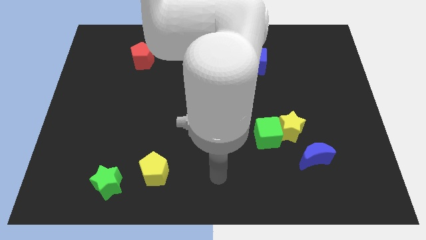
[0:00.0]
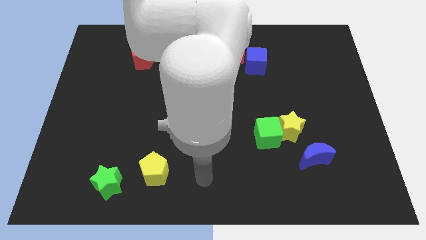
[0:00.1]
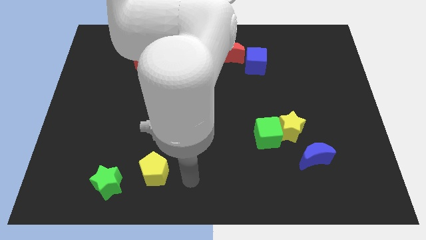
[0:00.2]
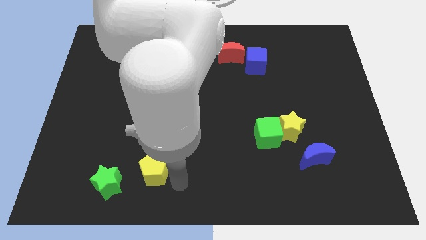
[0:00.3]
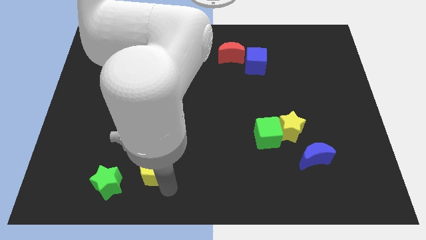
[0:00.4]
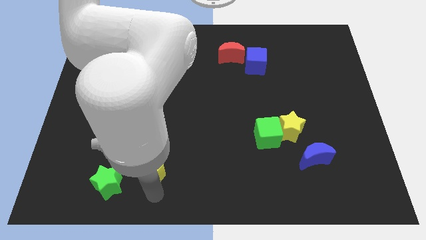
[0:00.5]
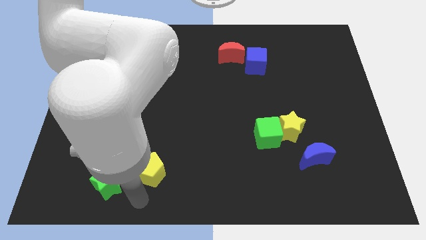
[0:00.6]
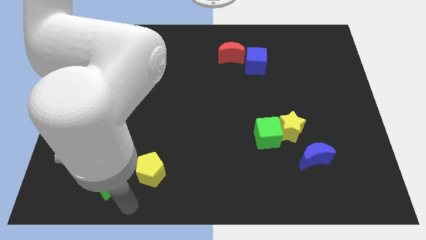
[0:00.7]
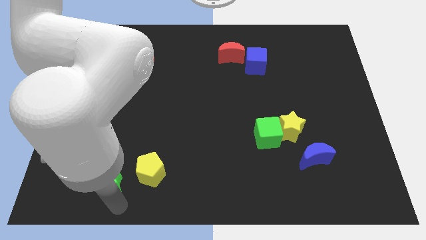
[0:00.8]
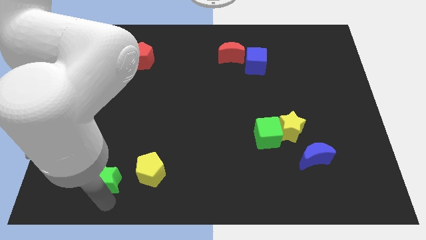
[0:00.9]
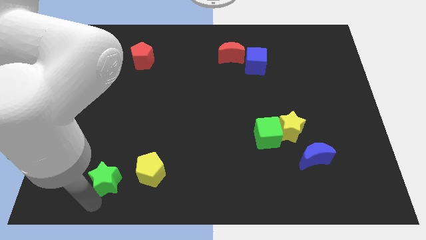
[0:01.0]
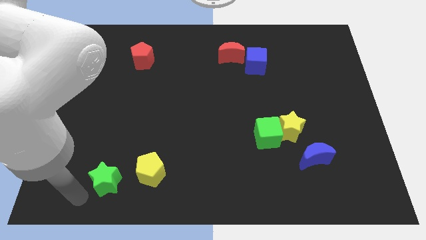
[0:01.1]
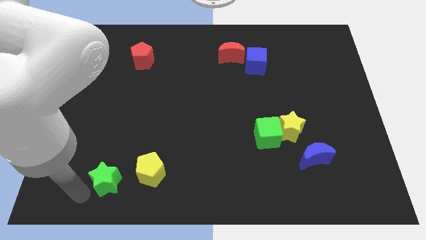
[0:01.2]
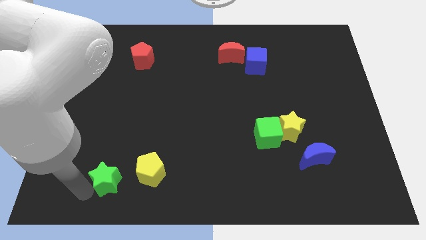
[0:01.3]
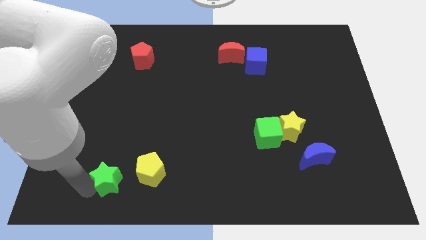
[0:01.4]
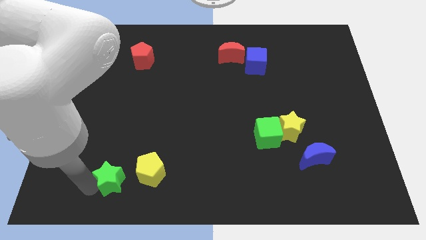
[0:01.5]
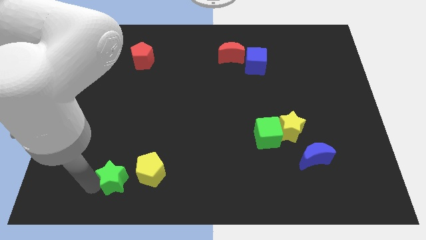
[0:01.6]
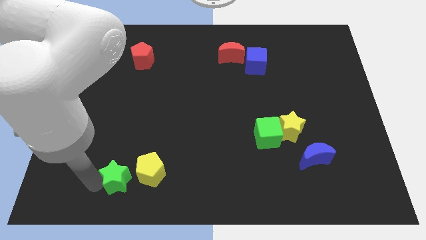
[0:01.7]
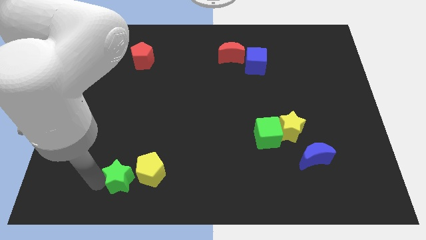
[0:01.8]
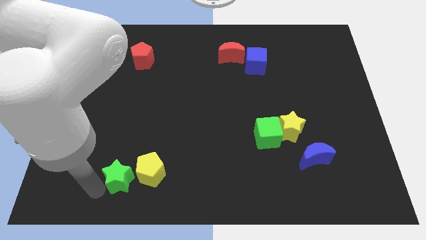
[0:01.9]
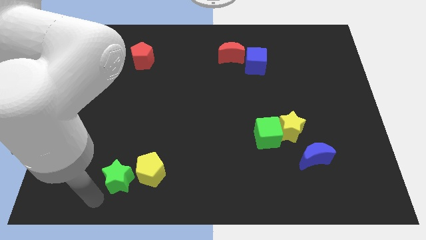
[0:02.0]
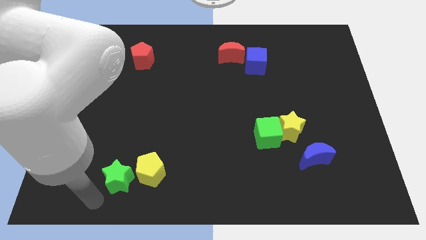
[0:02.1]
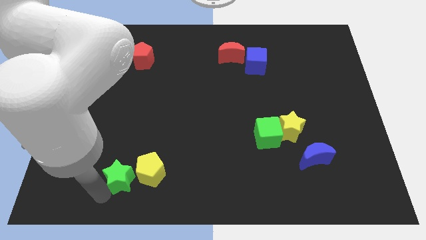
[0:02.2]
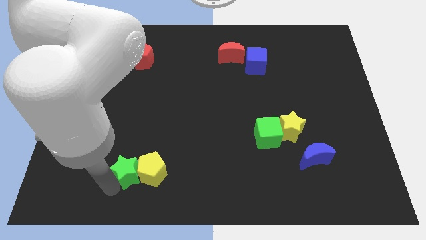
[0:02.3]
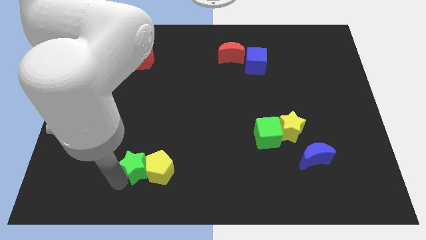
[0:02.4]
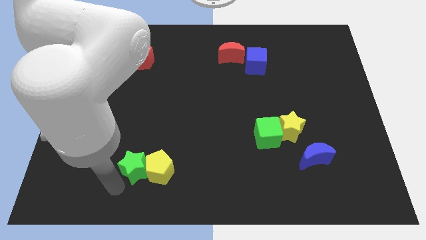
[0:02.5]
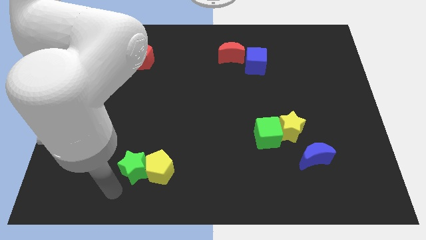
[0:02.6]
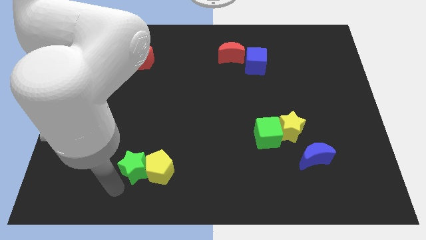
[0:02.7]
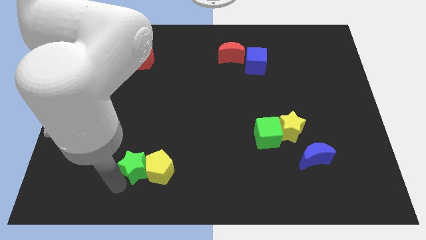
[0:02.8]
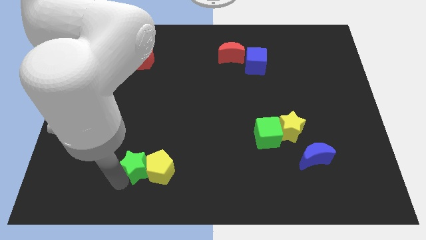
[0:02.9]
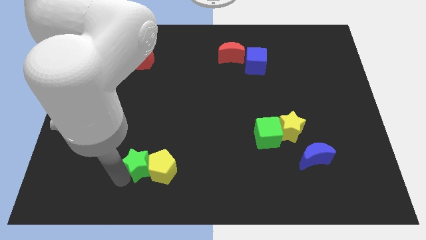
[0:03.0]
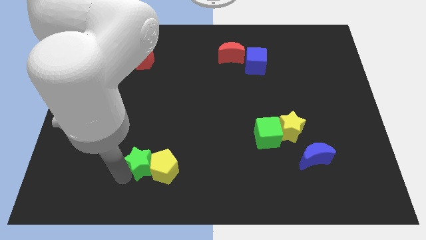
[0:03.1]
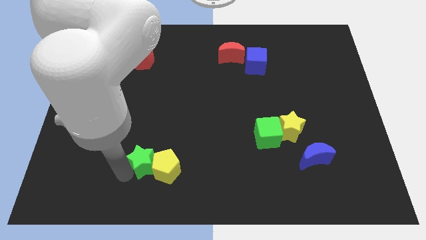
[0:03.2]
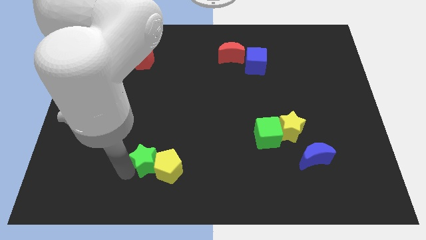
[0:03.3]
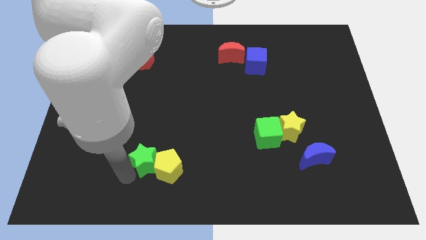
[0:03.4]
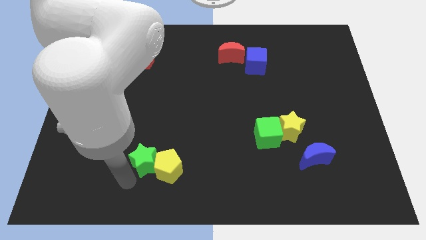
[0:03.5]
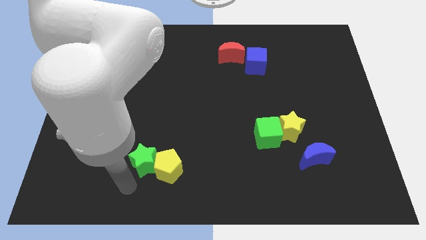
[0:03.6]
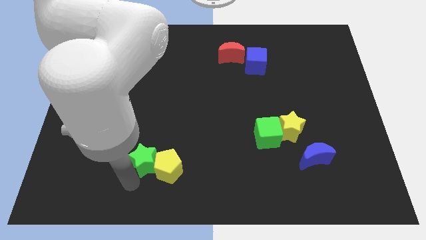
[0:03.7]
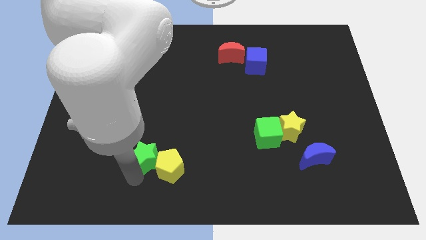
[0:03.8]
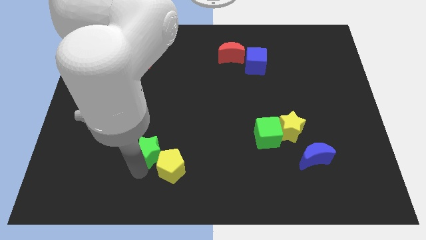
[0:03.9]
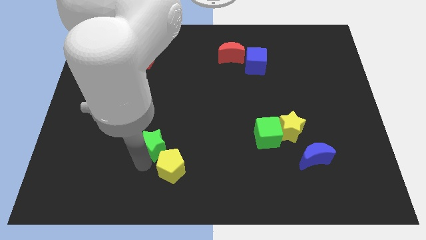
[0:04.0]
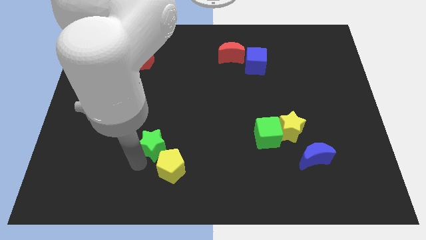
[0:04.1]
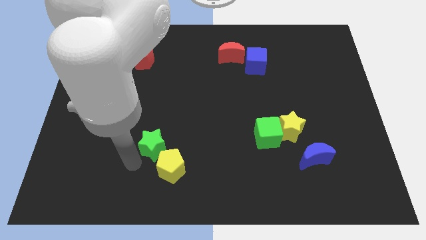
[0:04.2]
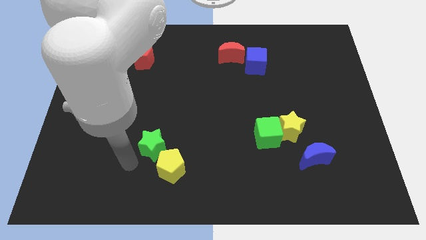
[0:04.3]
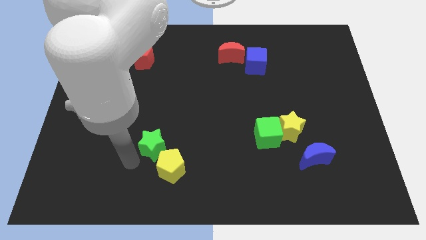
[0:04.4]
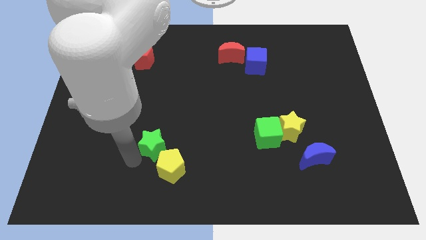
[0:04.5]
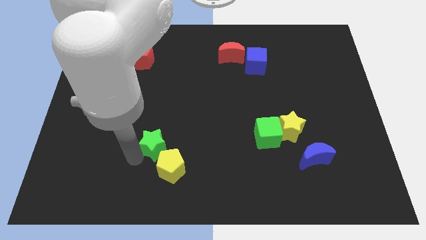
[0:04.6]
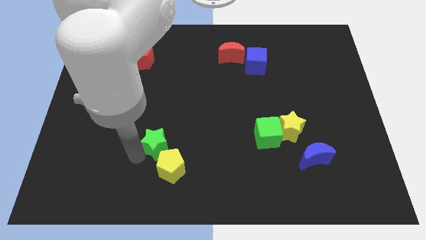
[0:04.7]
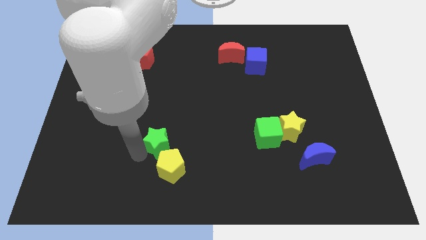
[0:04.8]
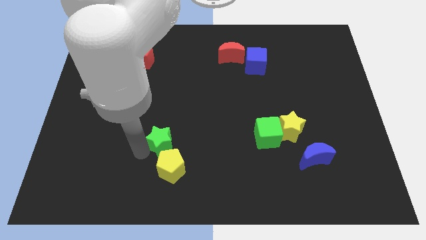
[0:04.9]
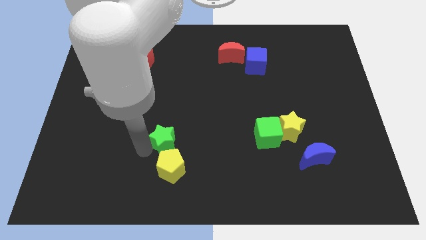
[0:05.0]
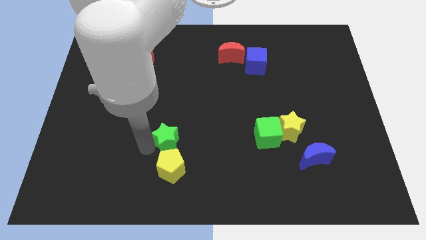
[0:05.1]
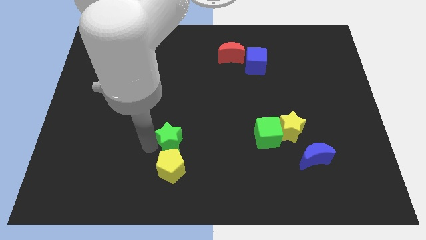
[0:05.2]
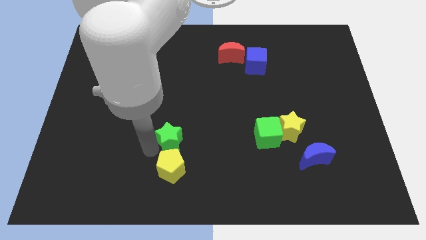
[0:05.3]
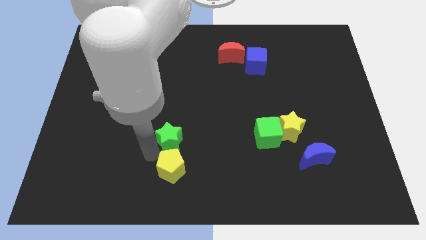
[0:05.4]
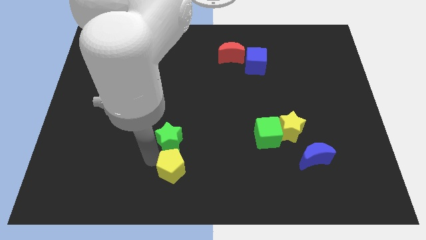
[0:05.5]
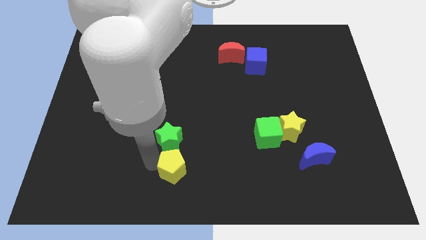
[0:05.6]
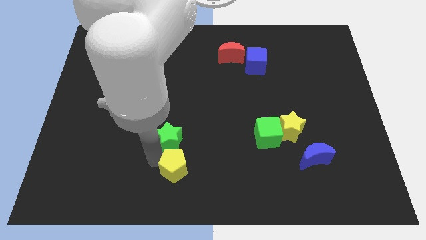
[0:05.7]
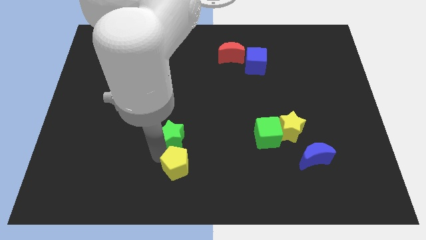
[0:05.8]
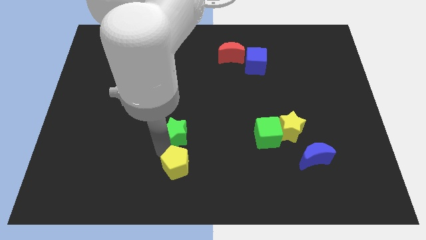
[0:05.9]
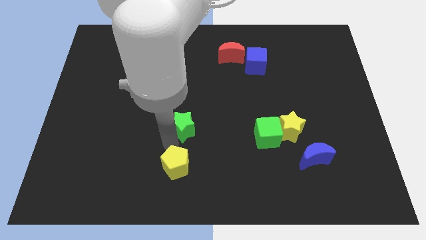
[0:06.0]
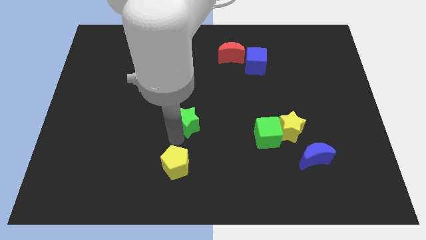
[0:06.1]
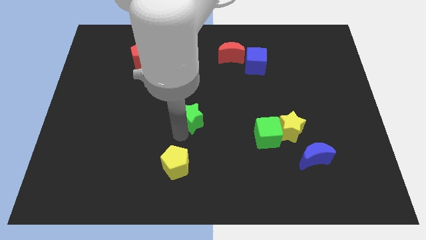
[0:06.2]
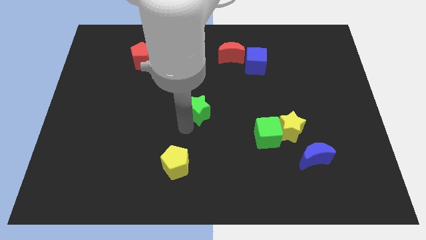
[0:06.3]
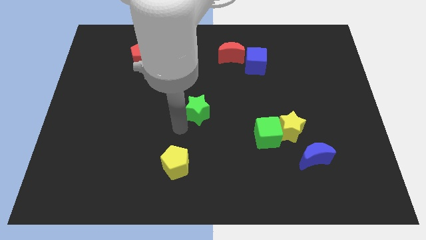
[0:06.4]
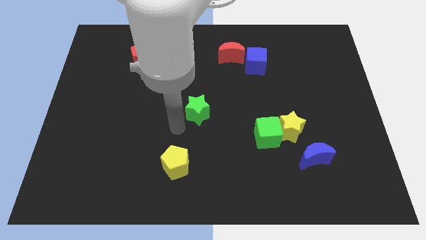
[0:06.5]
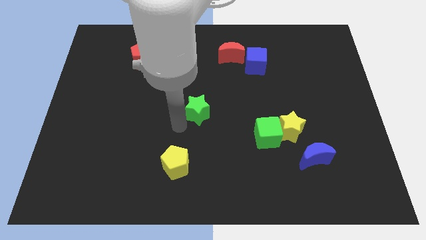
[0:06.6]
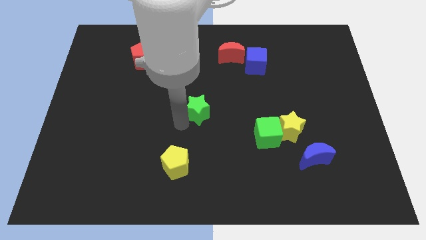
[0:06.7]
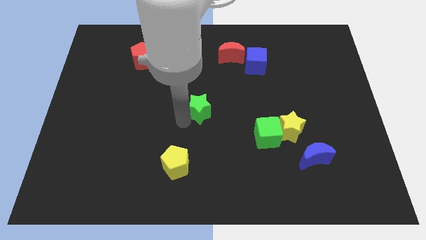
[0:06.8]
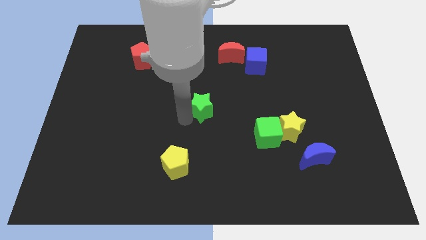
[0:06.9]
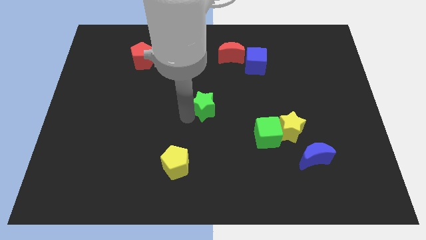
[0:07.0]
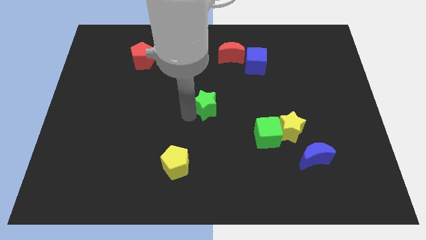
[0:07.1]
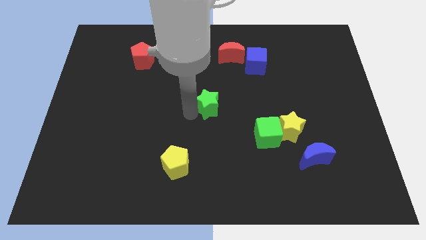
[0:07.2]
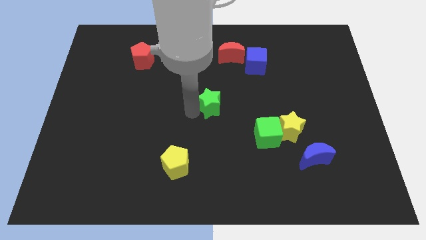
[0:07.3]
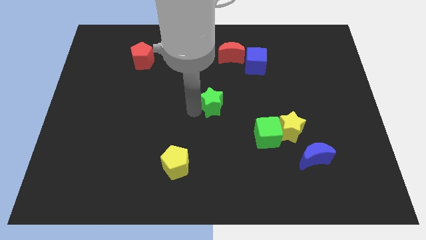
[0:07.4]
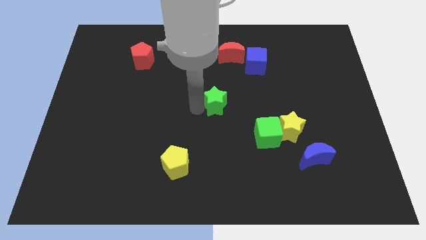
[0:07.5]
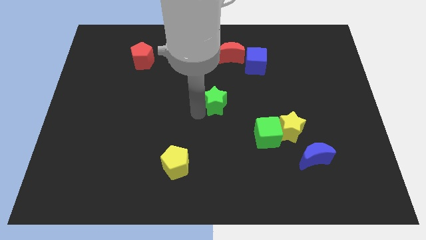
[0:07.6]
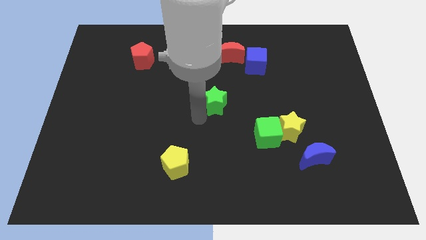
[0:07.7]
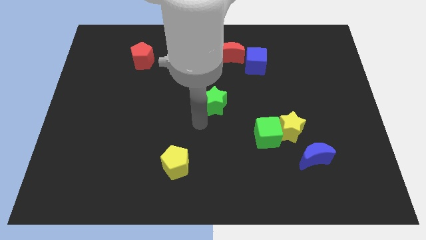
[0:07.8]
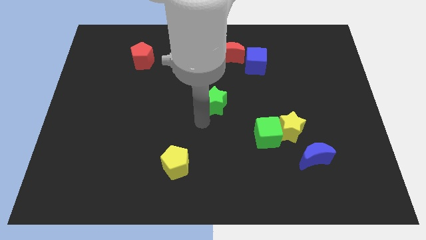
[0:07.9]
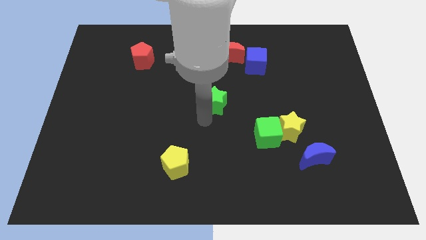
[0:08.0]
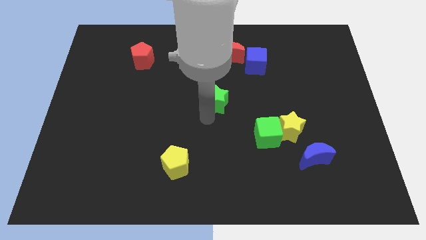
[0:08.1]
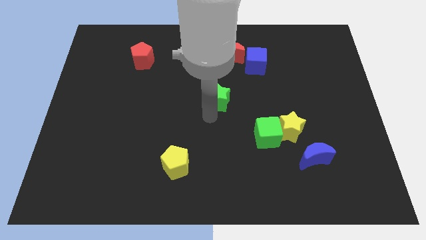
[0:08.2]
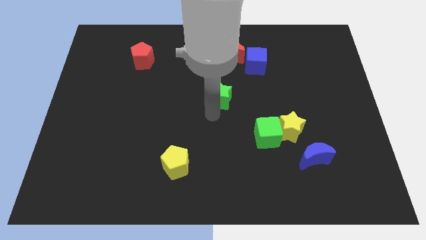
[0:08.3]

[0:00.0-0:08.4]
put the green star to the bottom of the red moon
